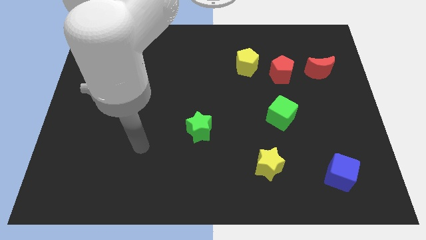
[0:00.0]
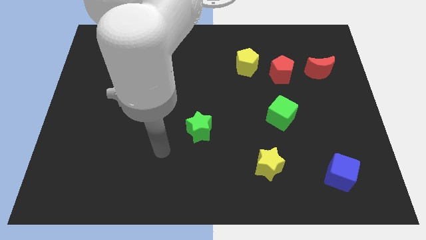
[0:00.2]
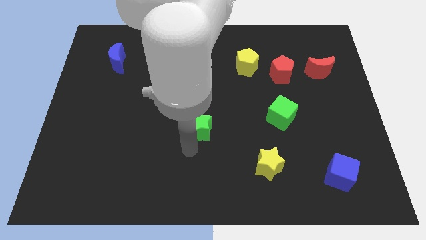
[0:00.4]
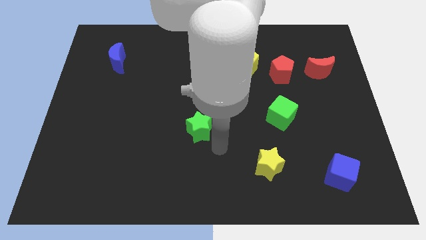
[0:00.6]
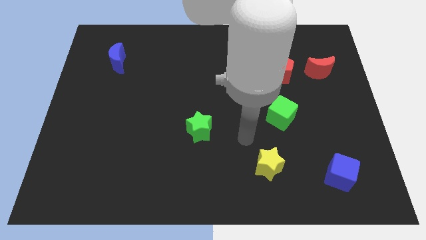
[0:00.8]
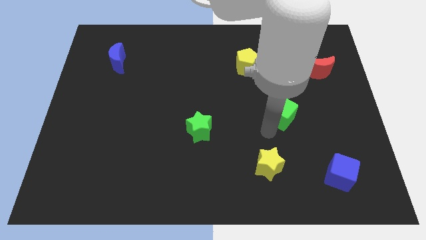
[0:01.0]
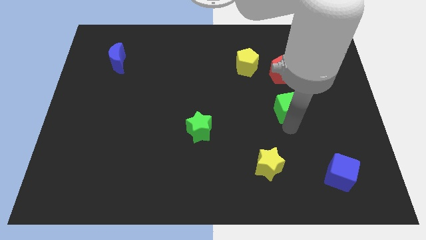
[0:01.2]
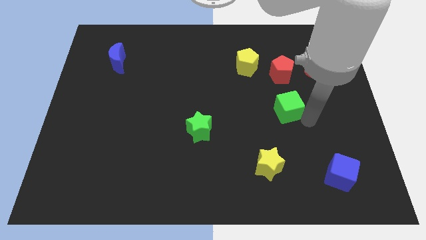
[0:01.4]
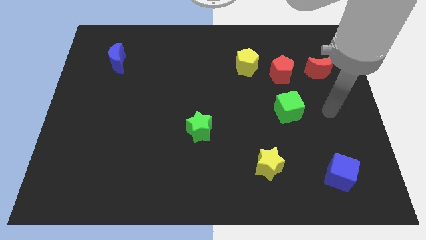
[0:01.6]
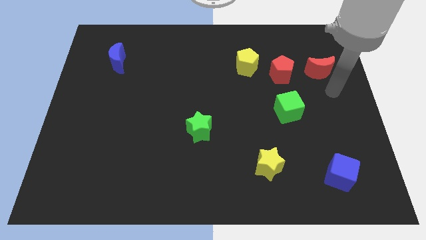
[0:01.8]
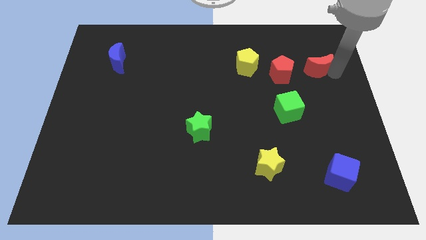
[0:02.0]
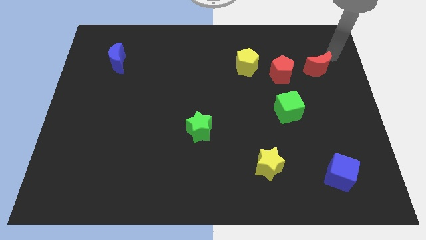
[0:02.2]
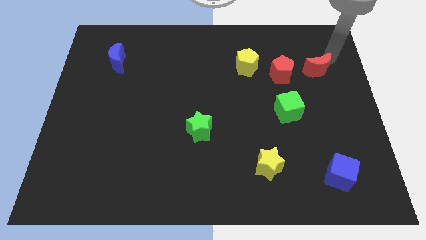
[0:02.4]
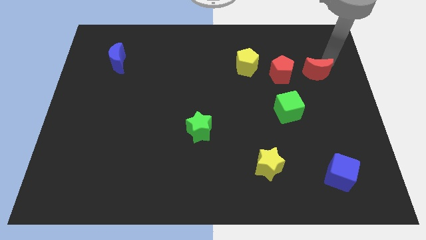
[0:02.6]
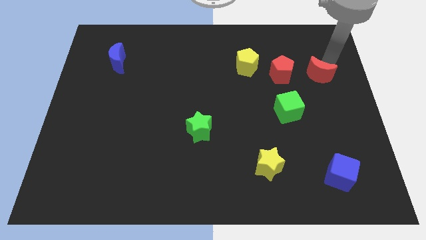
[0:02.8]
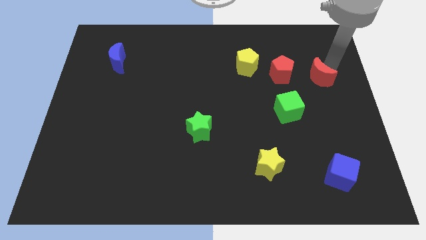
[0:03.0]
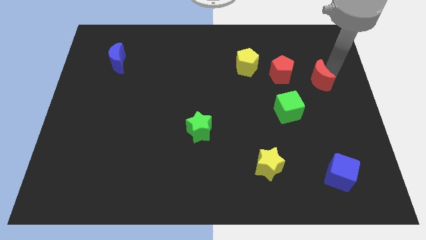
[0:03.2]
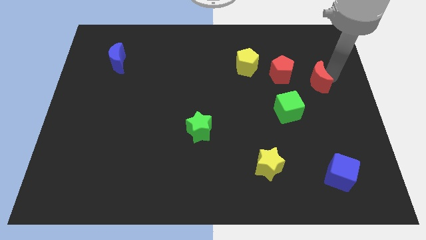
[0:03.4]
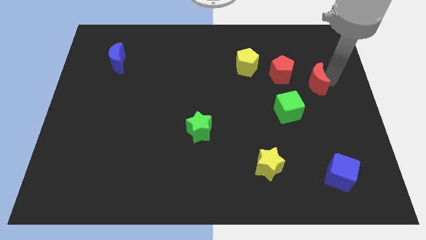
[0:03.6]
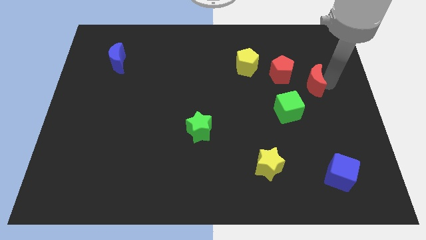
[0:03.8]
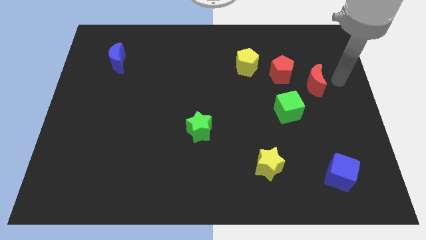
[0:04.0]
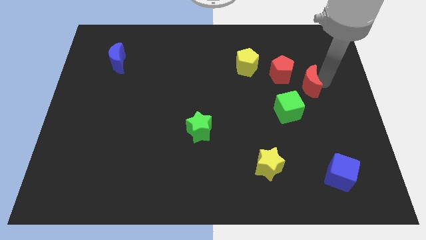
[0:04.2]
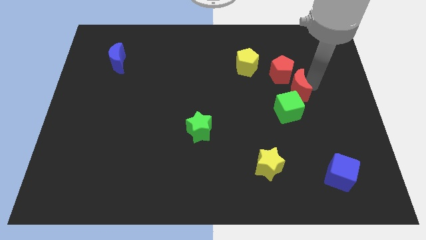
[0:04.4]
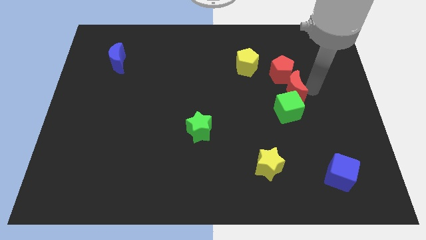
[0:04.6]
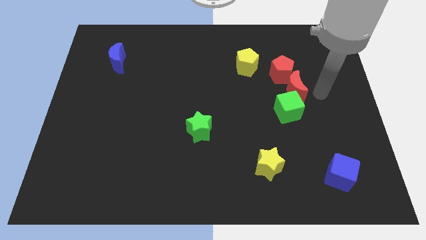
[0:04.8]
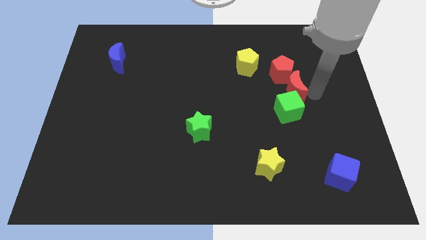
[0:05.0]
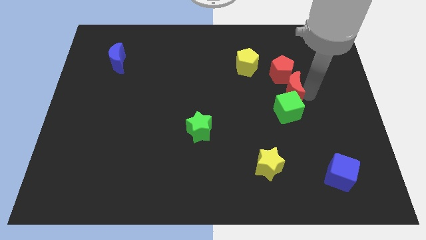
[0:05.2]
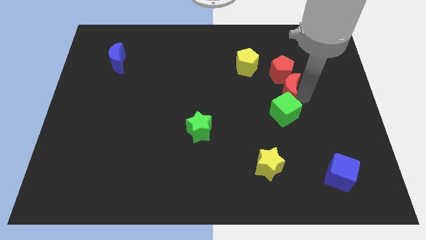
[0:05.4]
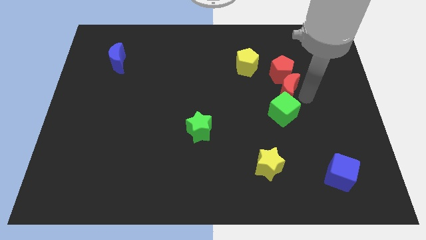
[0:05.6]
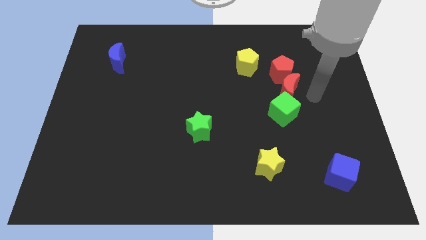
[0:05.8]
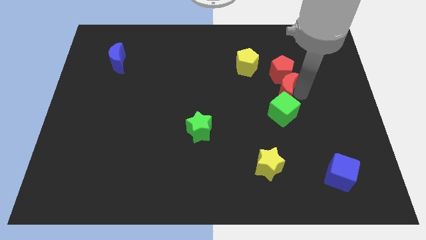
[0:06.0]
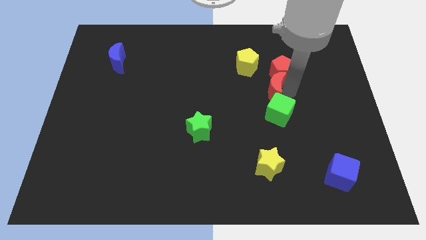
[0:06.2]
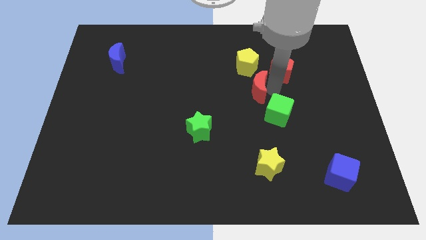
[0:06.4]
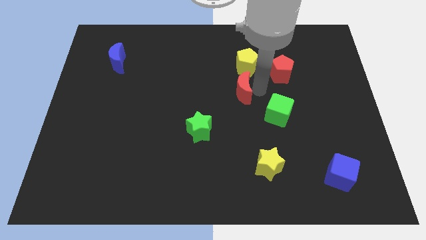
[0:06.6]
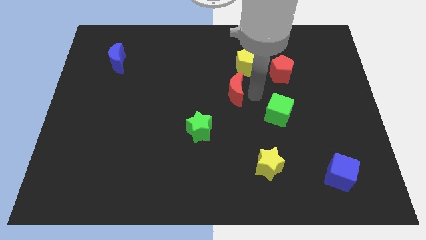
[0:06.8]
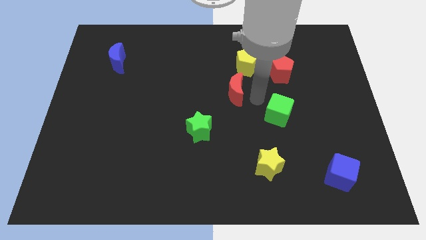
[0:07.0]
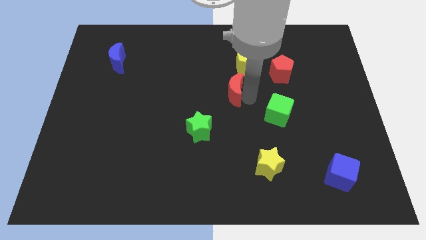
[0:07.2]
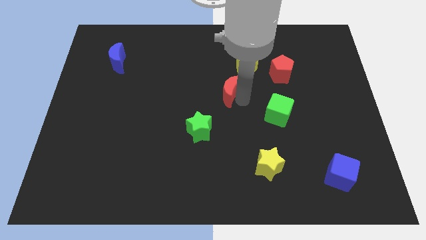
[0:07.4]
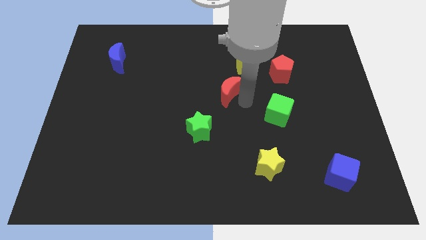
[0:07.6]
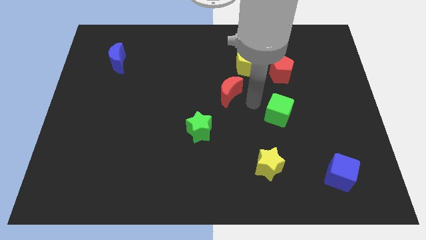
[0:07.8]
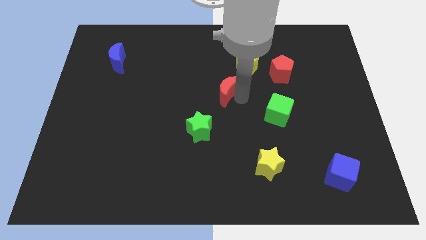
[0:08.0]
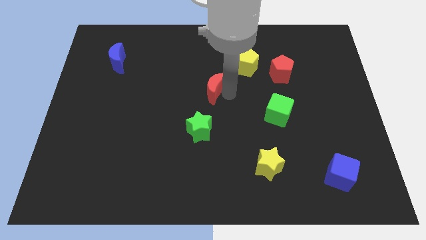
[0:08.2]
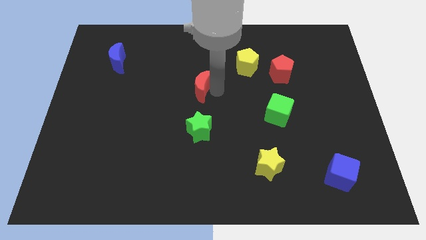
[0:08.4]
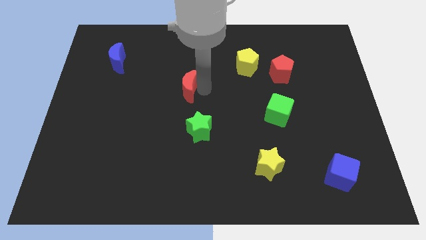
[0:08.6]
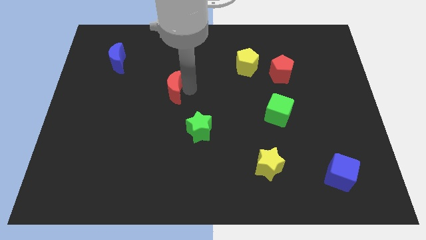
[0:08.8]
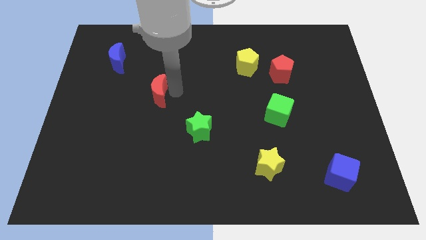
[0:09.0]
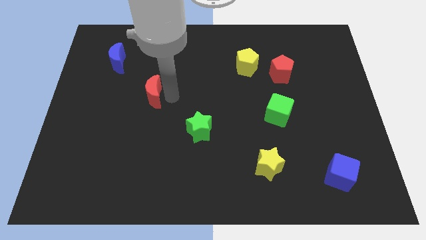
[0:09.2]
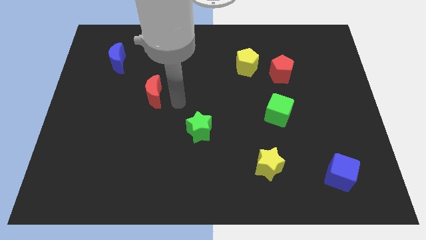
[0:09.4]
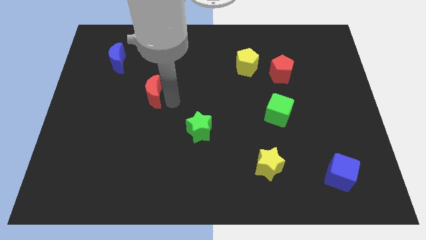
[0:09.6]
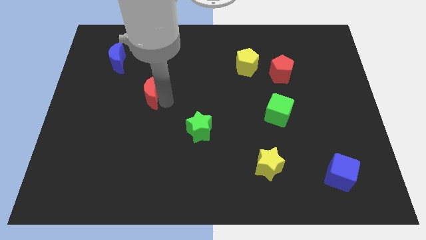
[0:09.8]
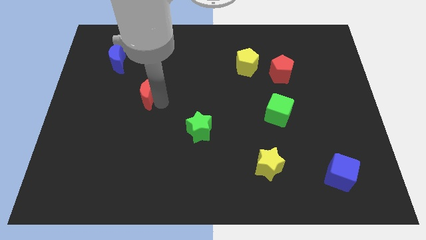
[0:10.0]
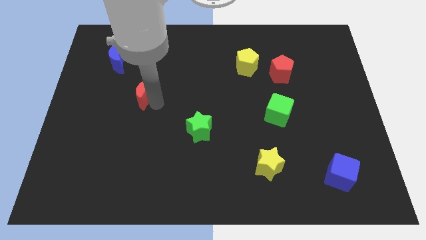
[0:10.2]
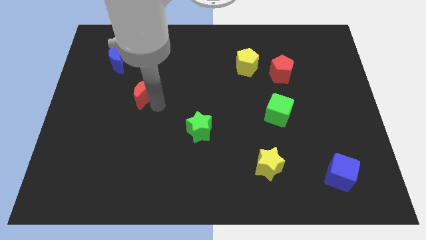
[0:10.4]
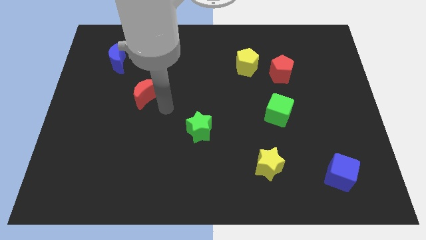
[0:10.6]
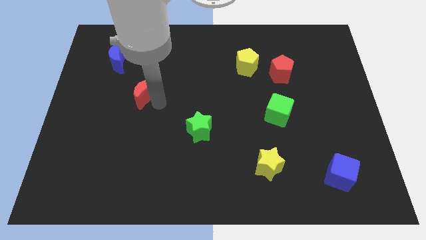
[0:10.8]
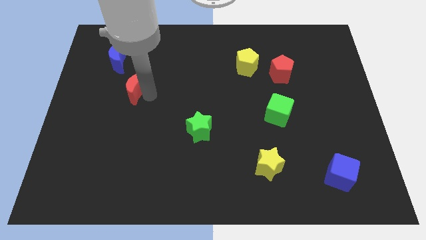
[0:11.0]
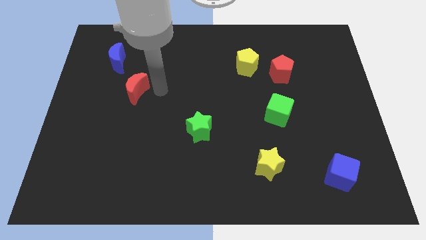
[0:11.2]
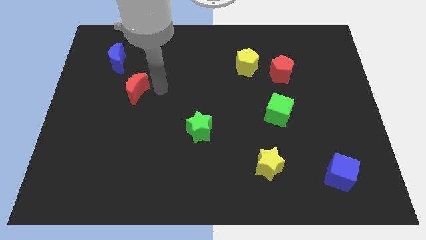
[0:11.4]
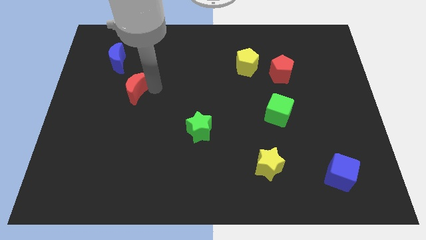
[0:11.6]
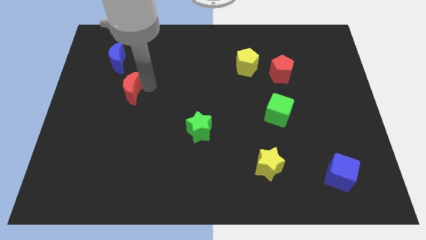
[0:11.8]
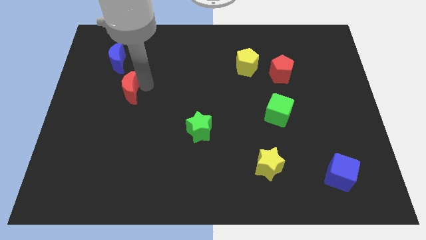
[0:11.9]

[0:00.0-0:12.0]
move the red moon to the bottom of the blue moon

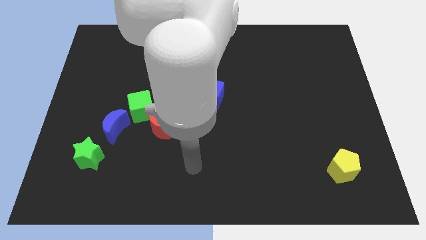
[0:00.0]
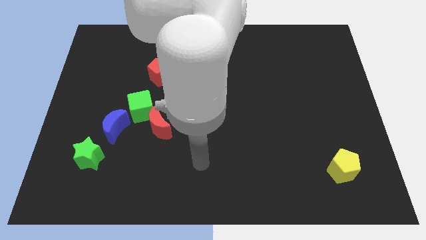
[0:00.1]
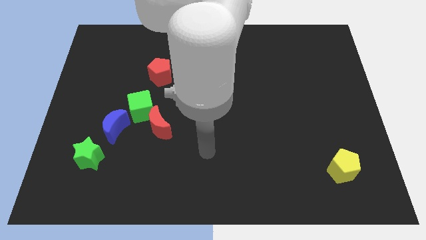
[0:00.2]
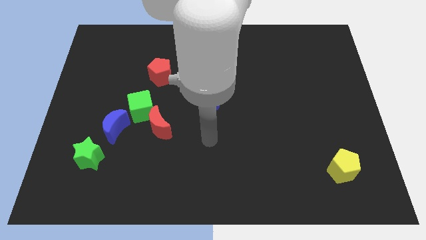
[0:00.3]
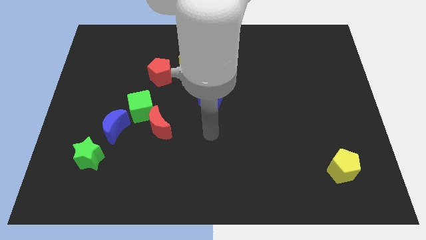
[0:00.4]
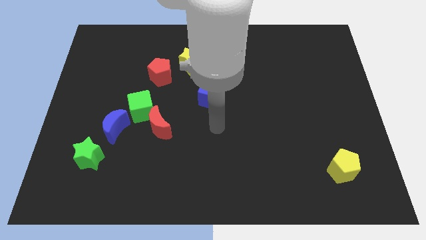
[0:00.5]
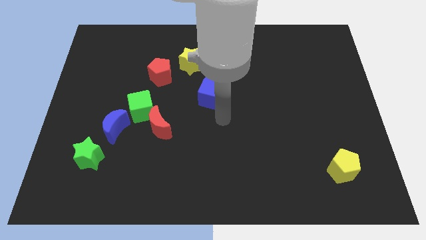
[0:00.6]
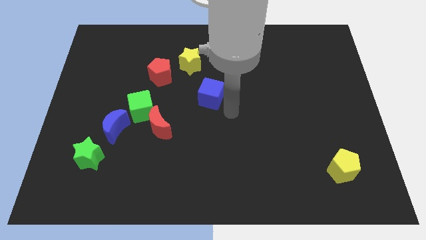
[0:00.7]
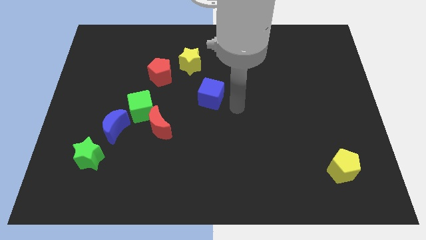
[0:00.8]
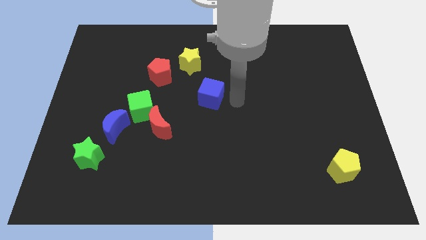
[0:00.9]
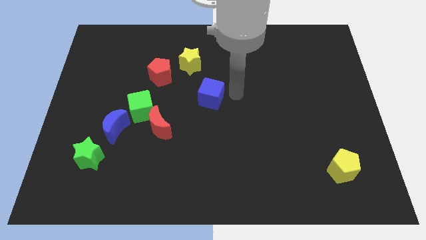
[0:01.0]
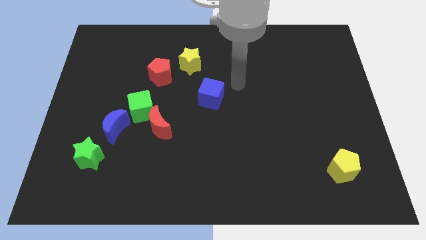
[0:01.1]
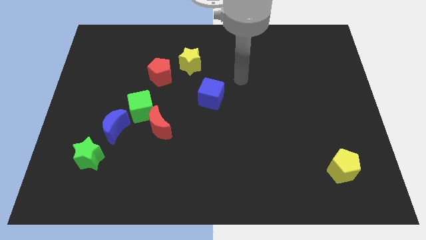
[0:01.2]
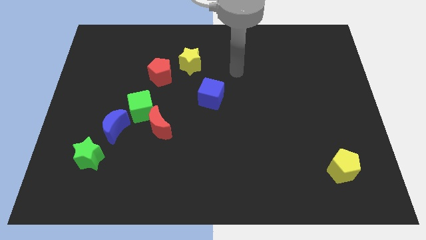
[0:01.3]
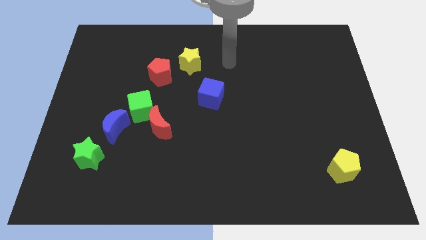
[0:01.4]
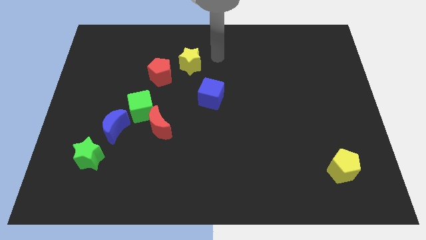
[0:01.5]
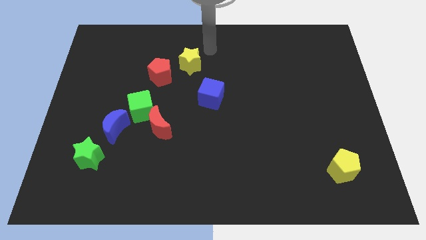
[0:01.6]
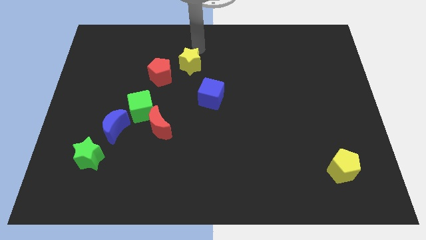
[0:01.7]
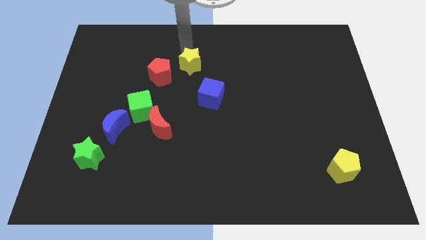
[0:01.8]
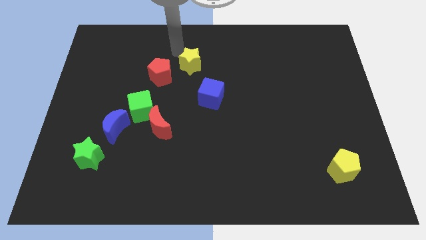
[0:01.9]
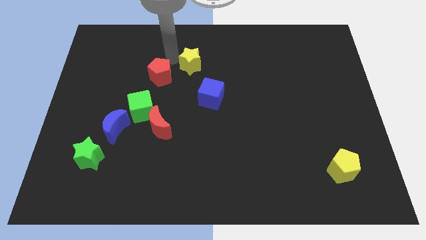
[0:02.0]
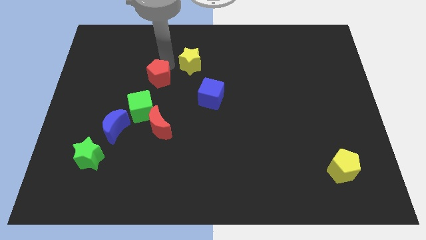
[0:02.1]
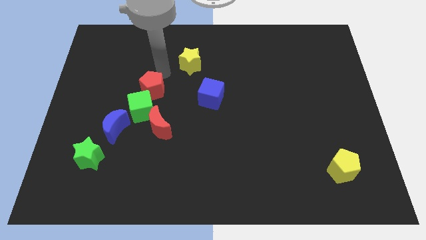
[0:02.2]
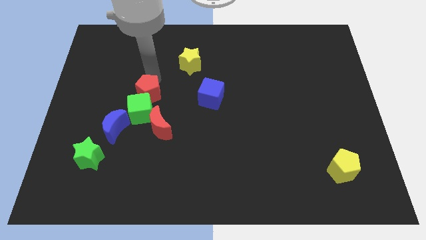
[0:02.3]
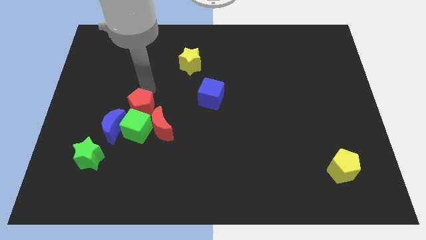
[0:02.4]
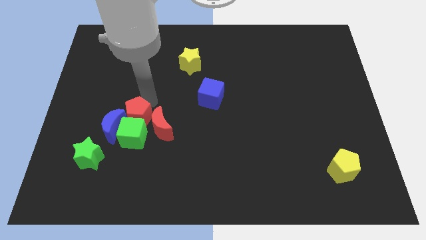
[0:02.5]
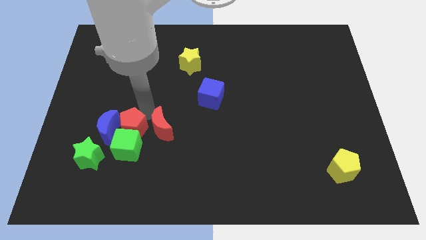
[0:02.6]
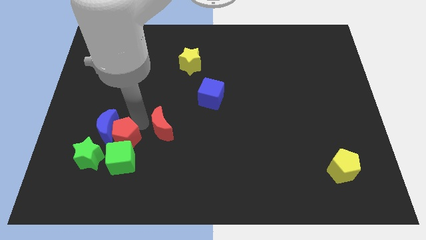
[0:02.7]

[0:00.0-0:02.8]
put the green cube to the bottom right of the green star
